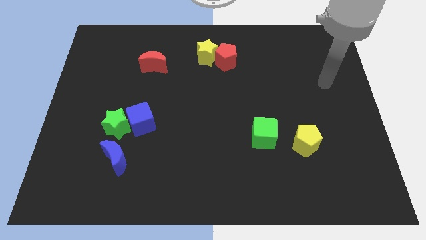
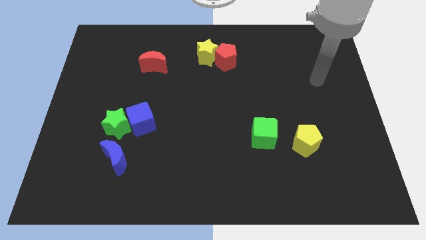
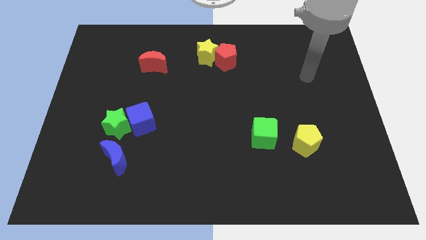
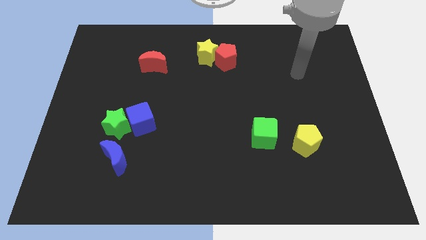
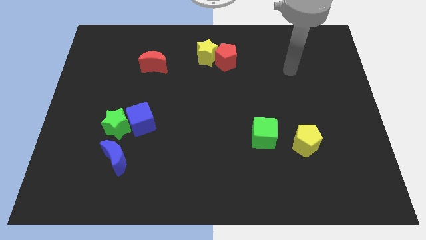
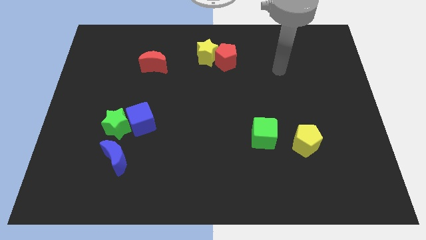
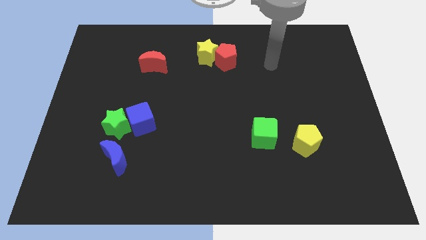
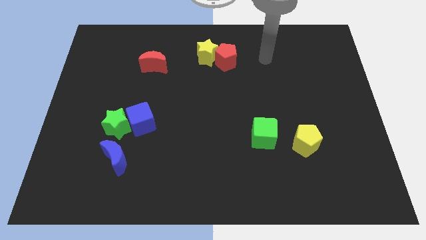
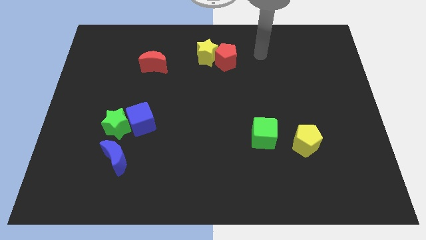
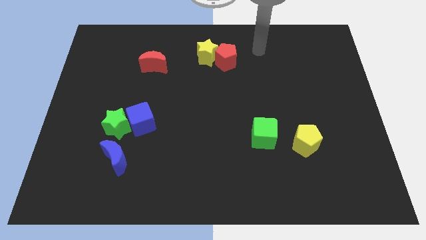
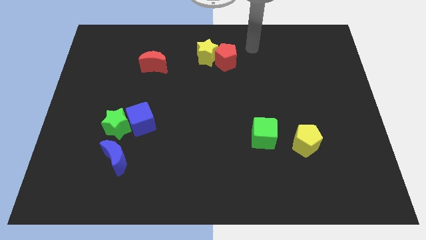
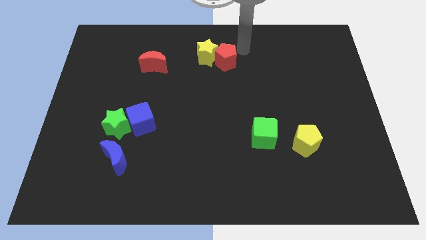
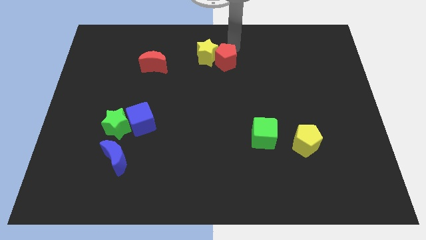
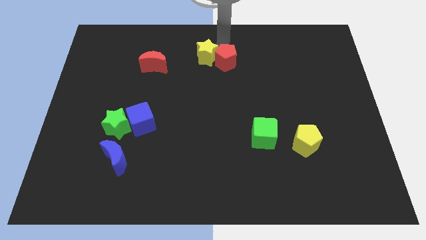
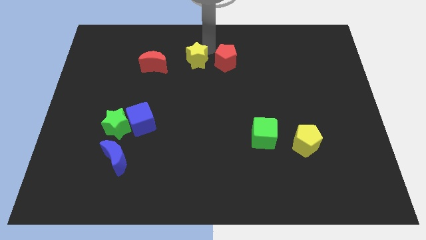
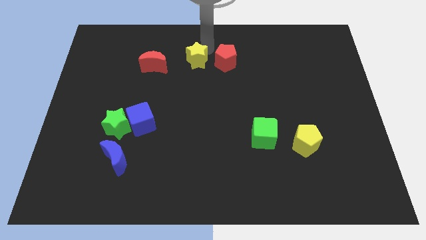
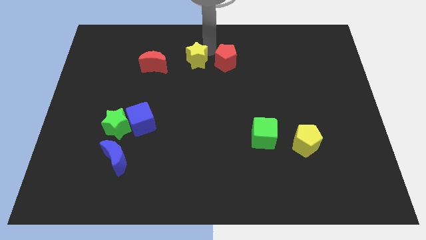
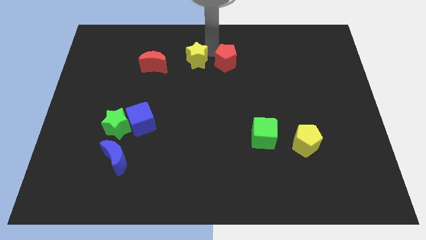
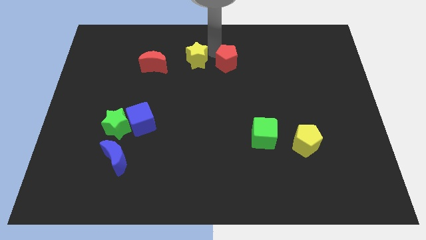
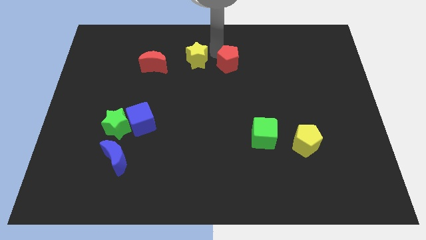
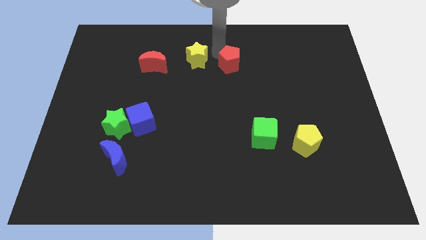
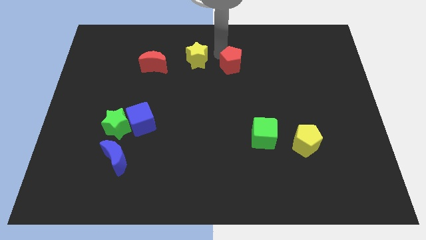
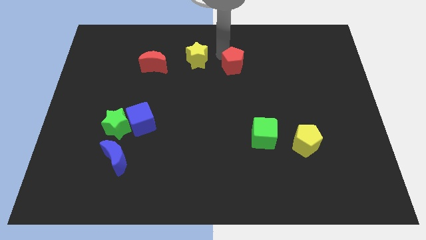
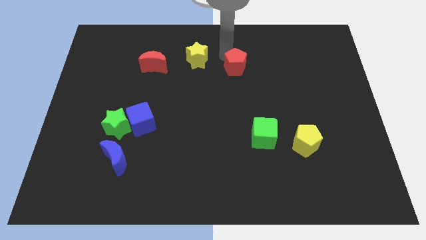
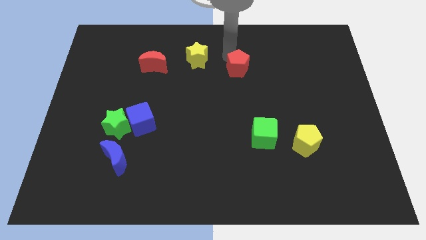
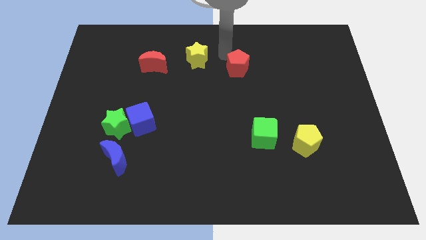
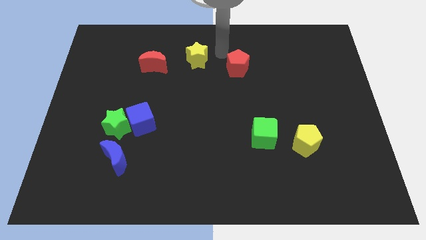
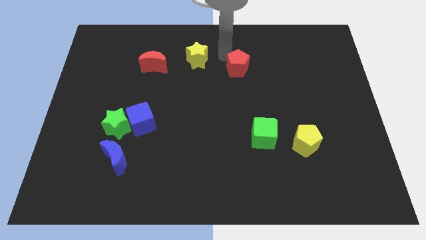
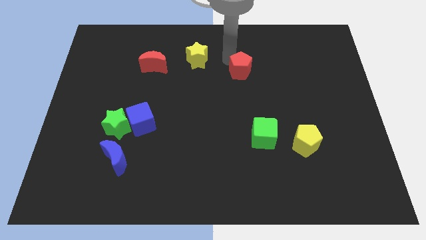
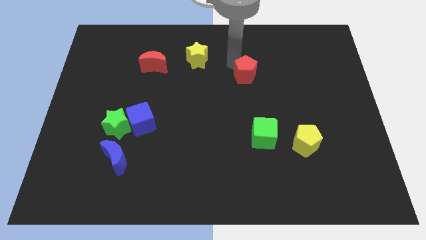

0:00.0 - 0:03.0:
move the red pentagon slightly down and then right

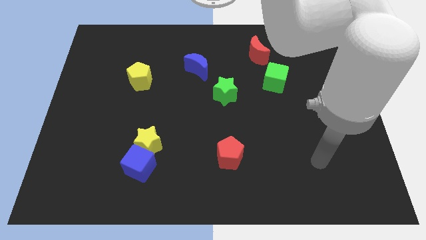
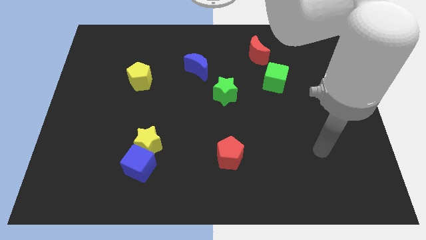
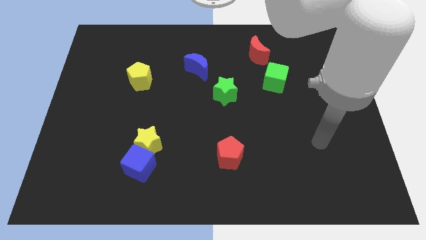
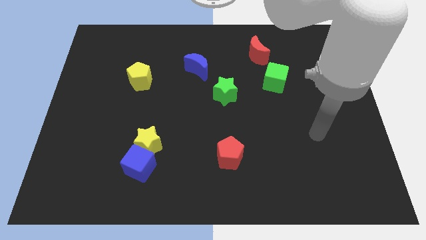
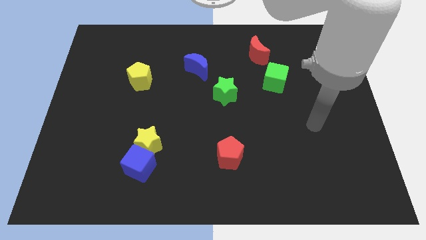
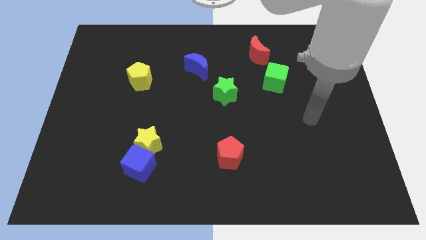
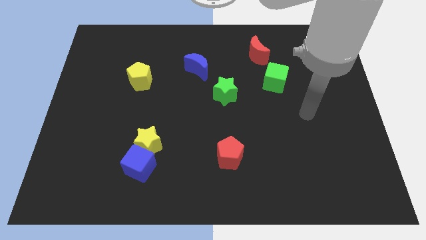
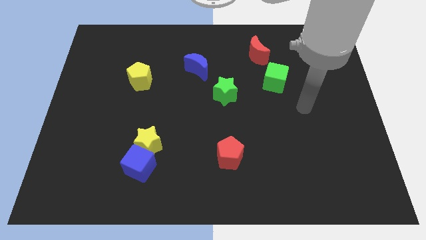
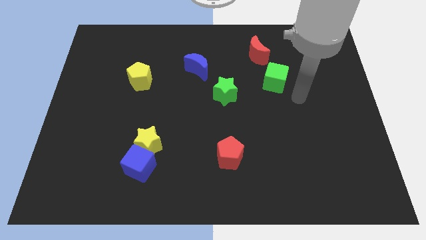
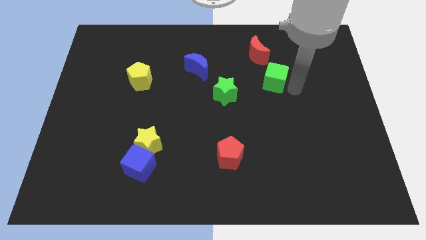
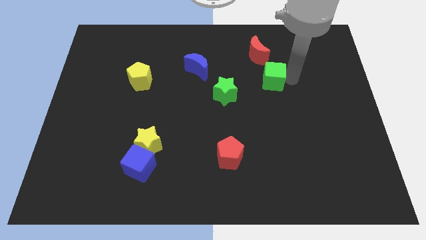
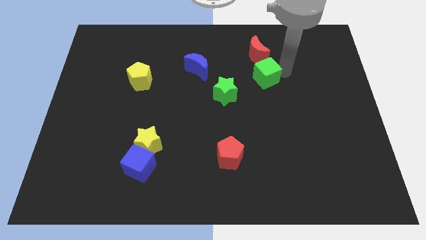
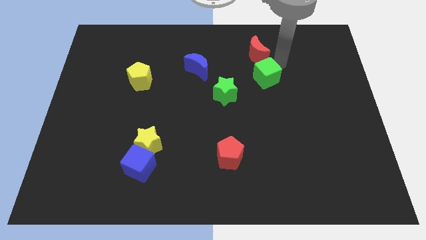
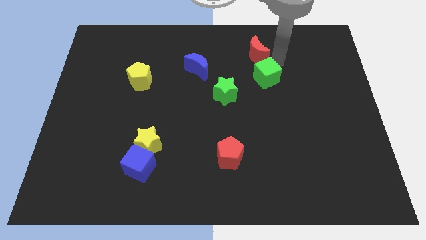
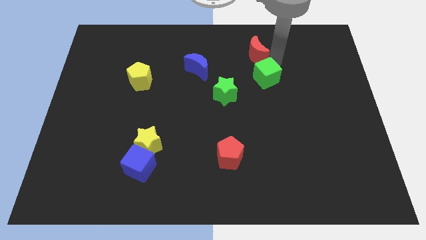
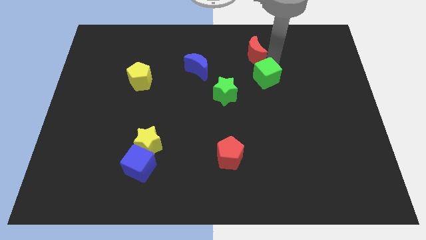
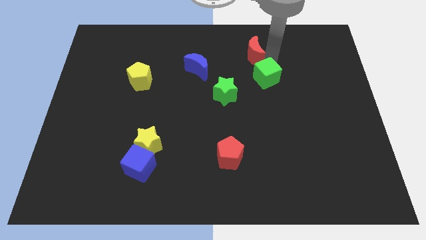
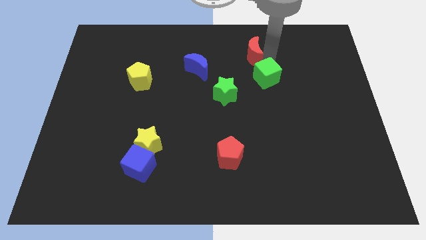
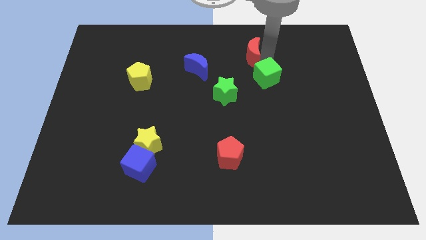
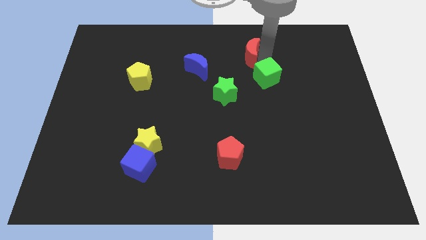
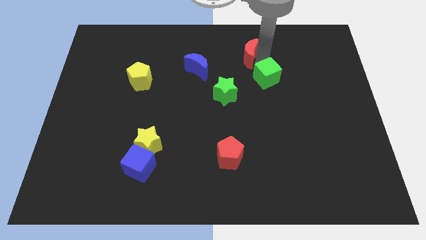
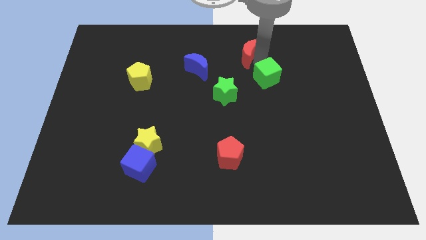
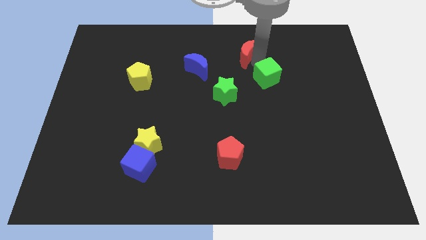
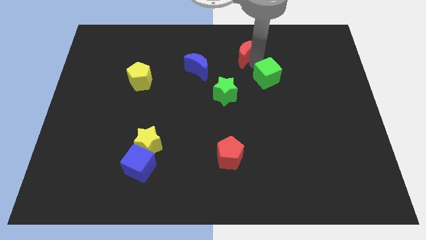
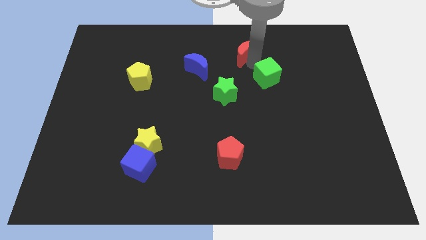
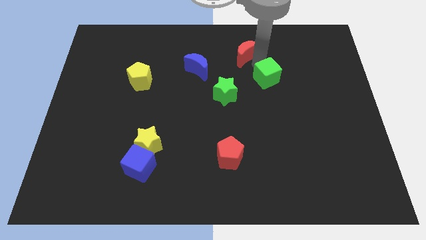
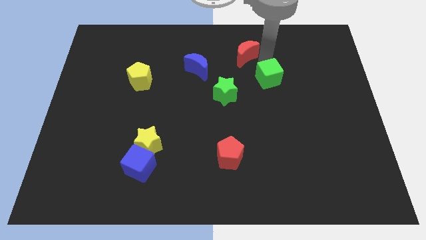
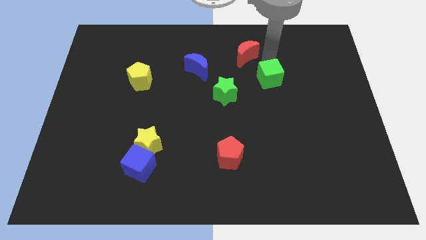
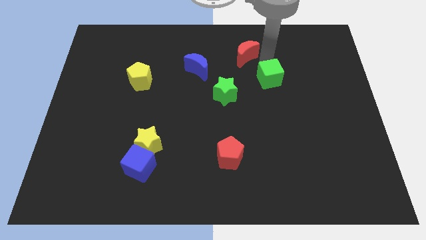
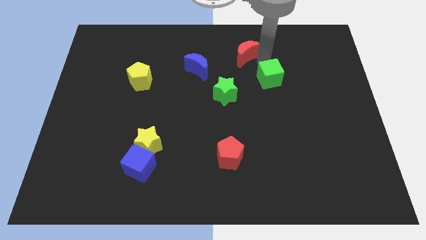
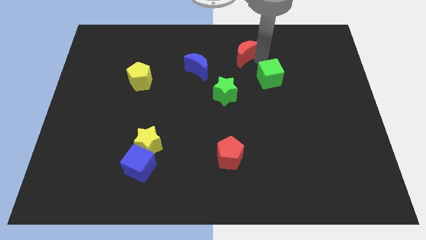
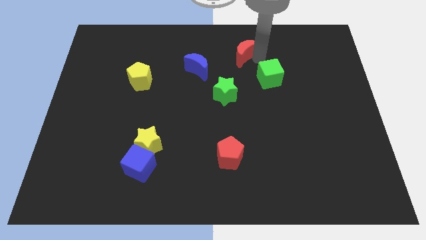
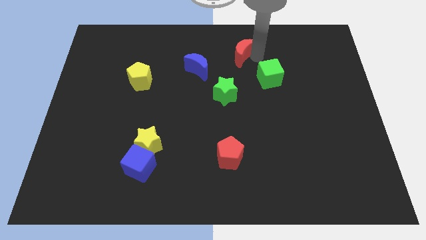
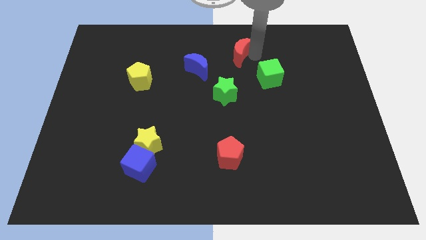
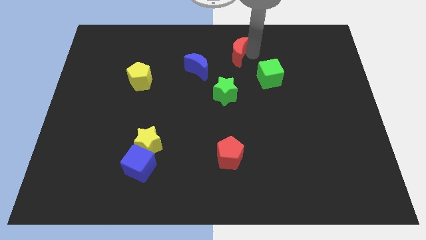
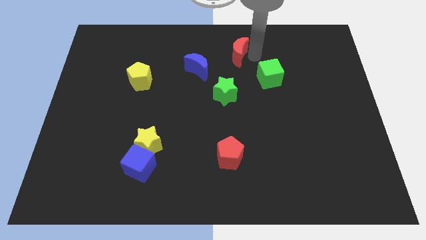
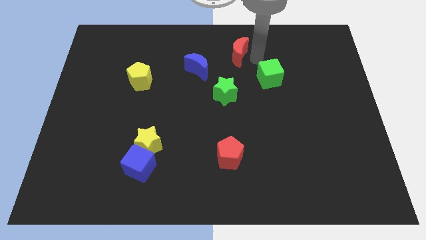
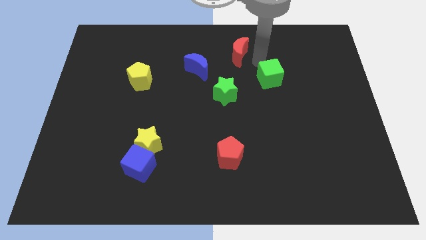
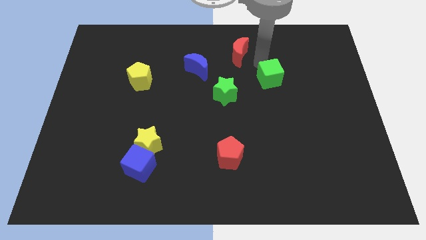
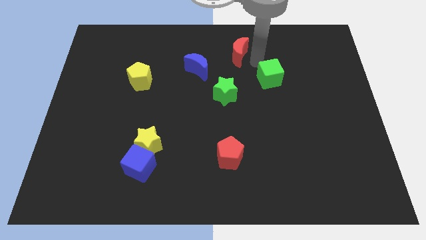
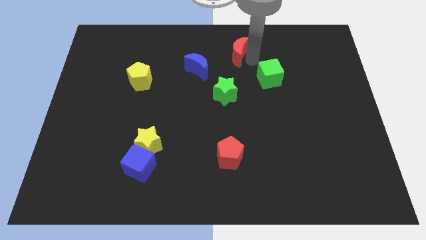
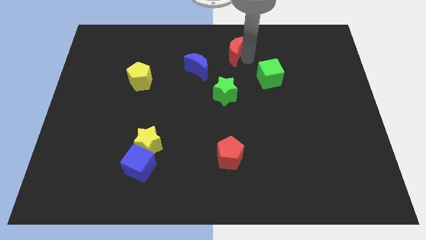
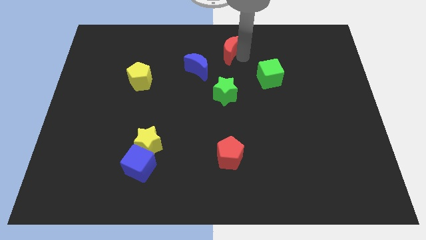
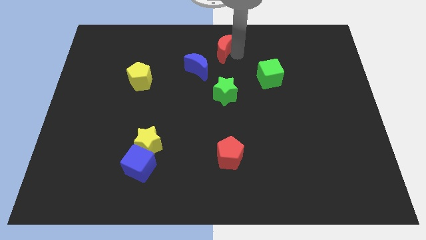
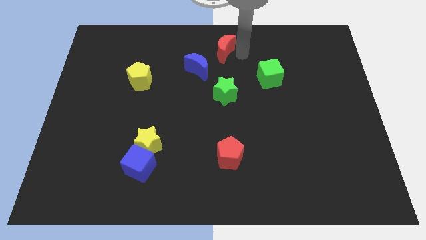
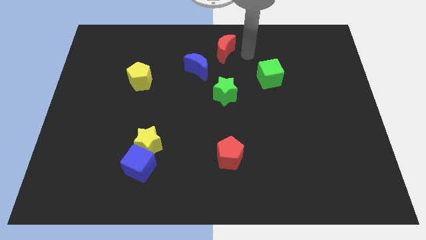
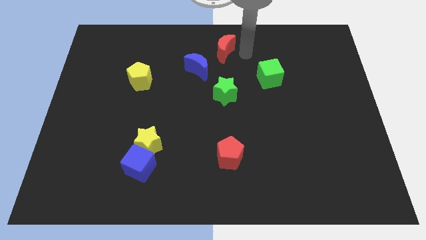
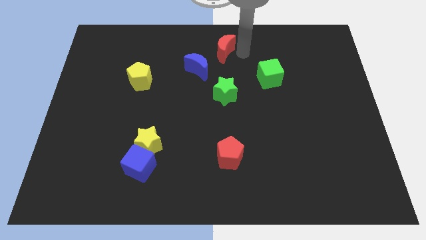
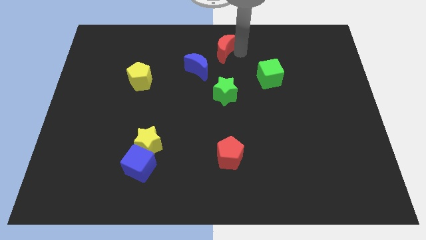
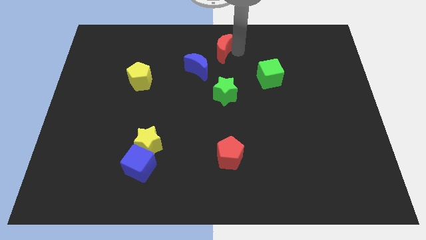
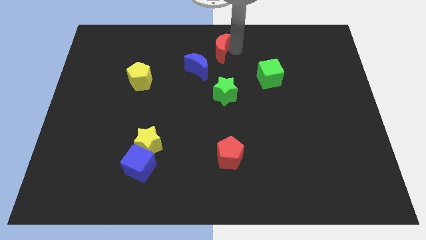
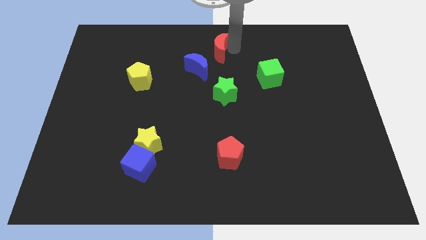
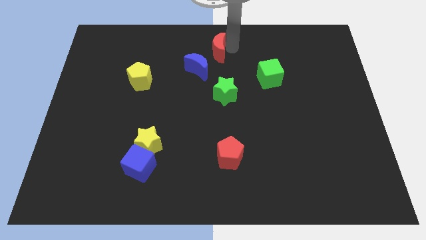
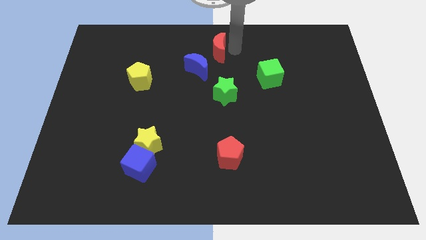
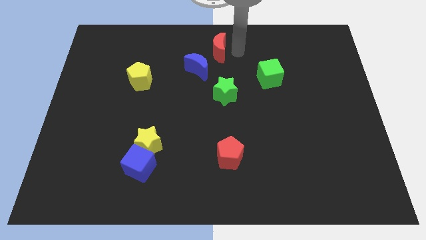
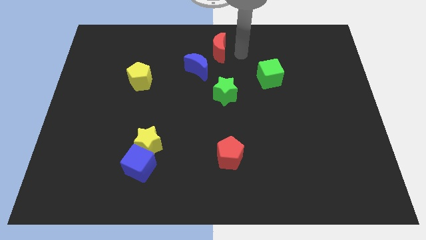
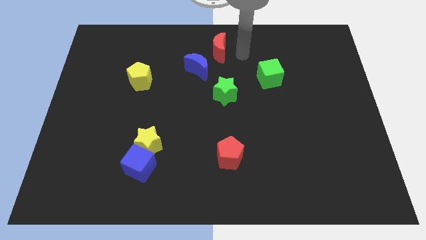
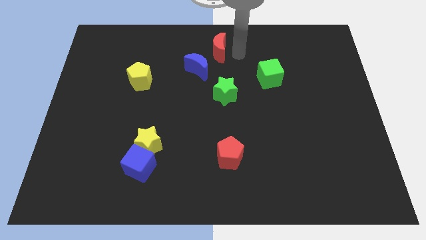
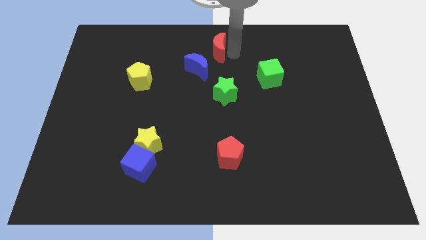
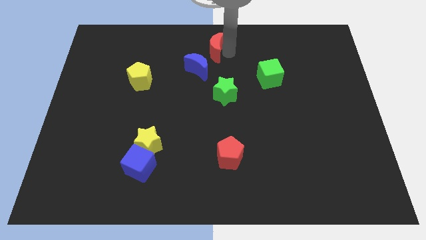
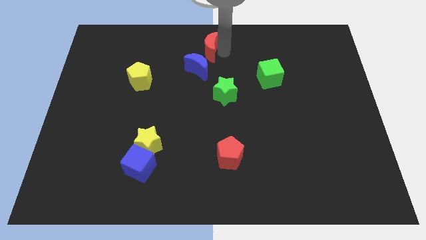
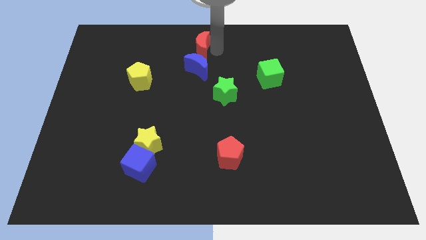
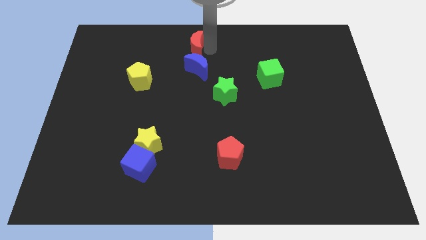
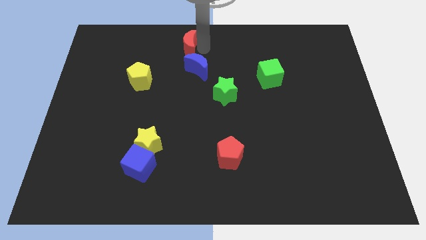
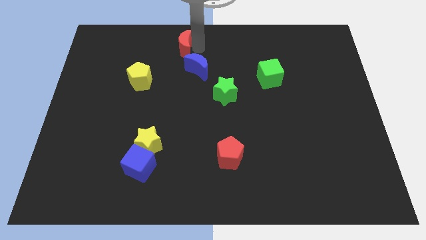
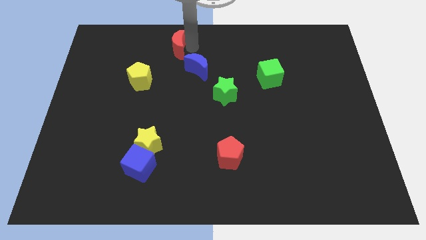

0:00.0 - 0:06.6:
push the red moon left
